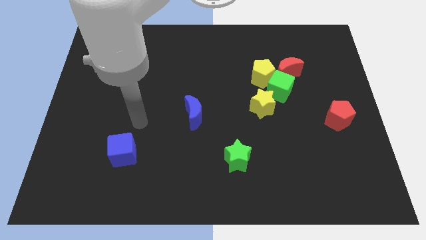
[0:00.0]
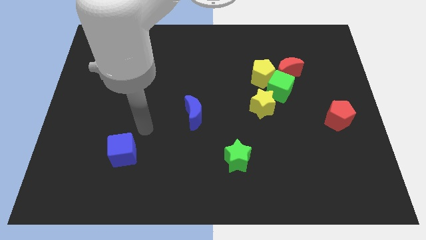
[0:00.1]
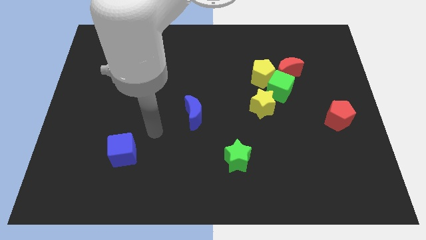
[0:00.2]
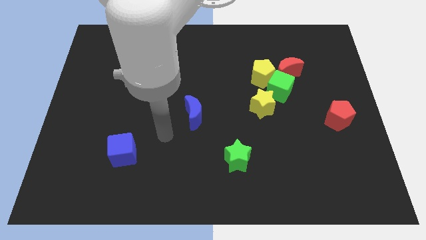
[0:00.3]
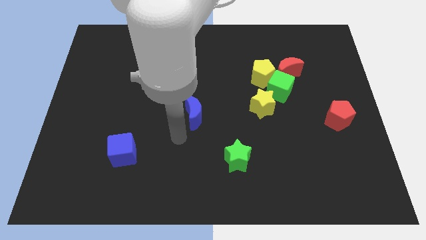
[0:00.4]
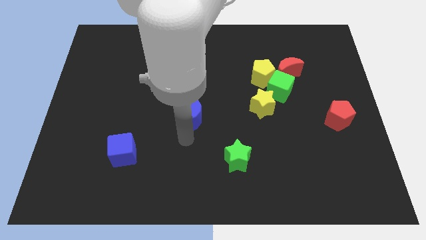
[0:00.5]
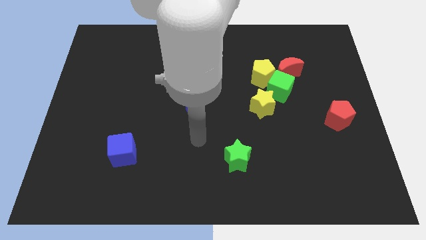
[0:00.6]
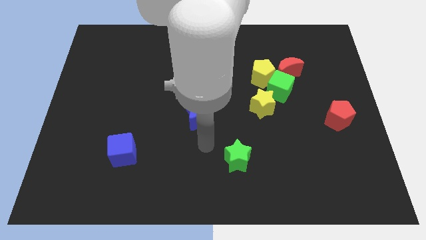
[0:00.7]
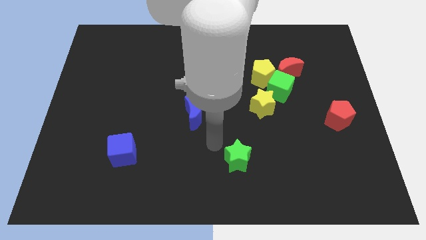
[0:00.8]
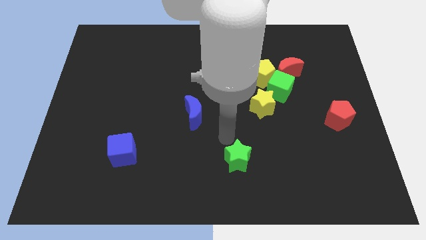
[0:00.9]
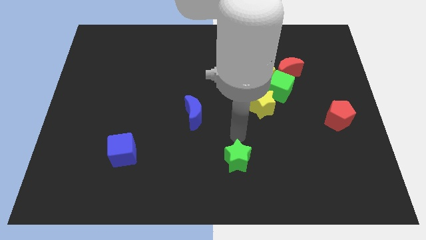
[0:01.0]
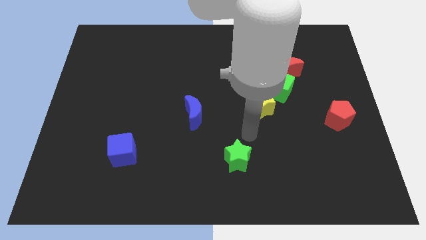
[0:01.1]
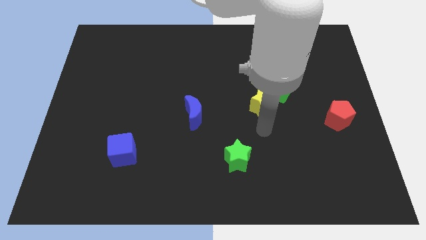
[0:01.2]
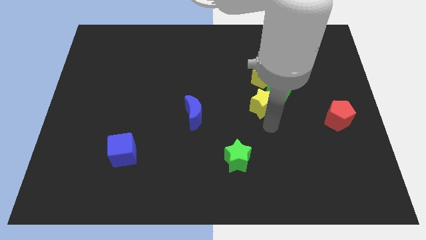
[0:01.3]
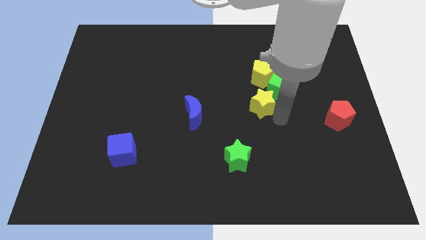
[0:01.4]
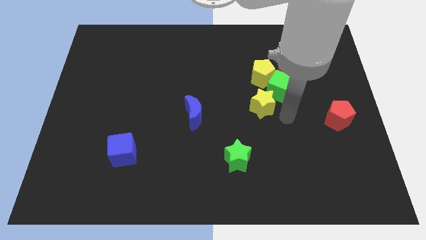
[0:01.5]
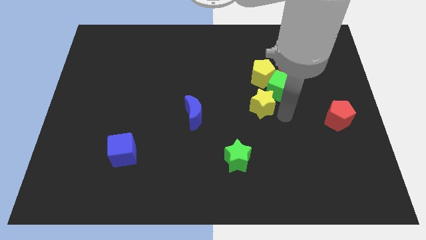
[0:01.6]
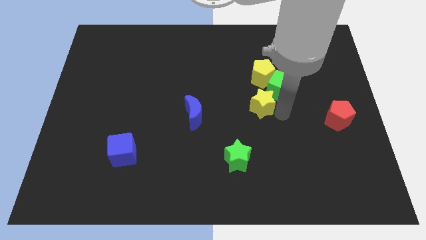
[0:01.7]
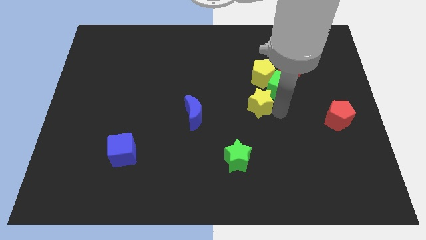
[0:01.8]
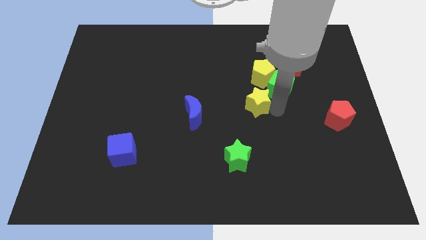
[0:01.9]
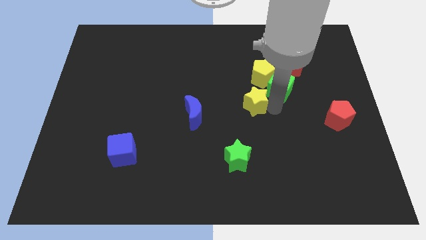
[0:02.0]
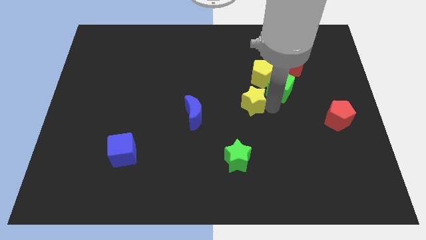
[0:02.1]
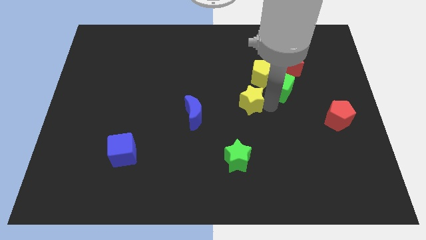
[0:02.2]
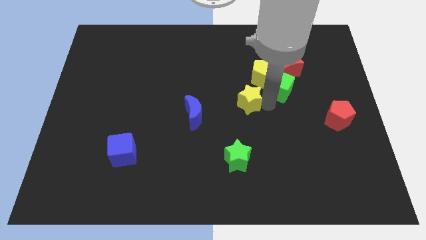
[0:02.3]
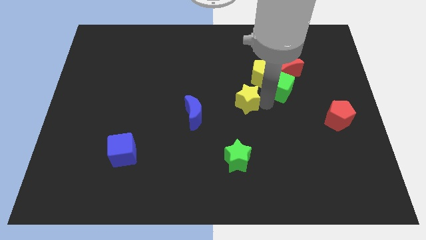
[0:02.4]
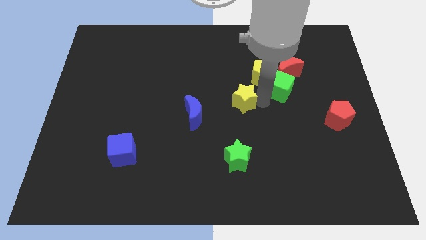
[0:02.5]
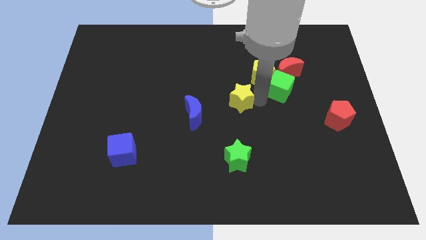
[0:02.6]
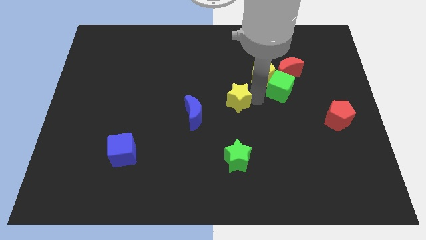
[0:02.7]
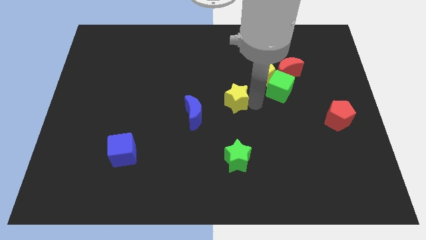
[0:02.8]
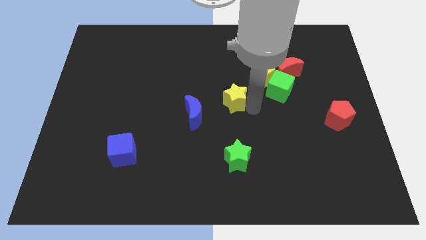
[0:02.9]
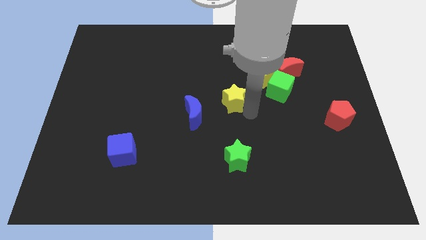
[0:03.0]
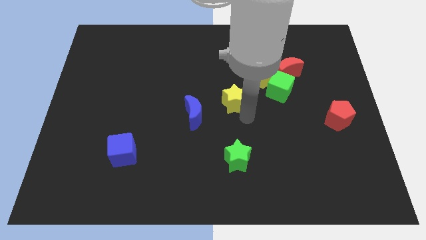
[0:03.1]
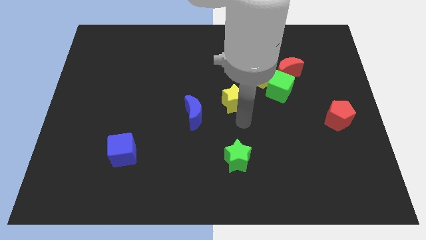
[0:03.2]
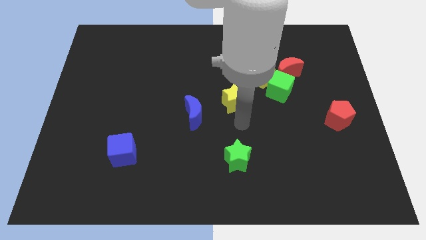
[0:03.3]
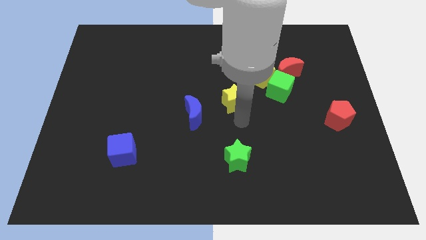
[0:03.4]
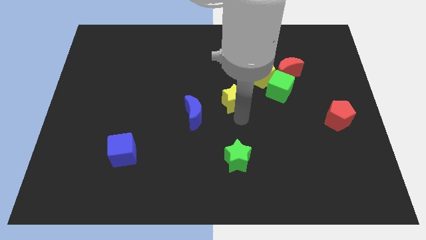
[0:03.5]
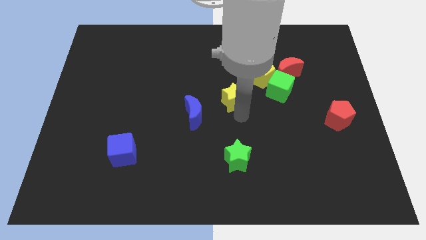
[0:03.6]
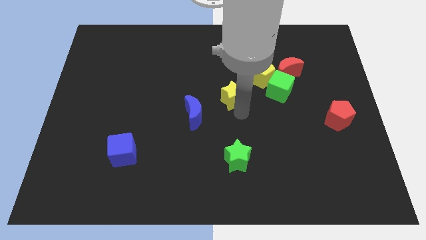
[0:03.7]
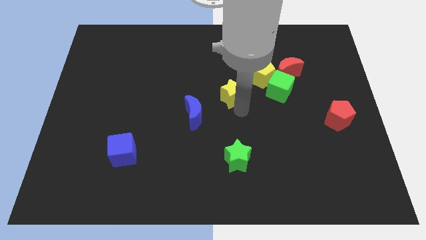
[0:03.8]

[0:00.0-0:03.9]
slightly move the yellow star up and to the left diagonally

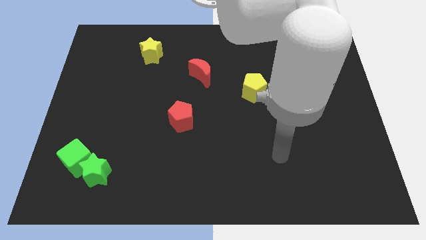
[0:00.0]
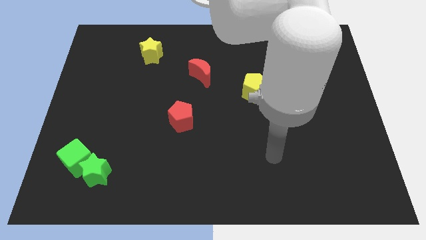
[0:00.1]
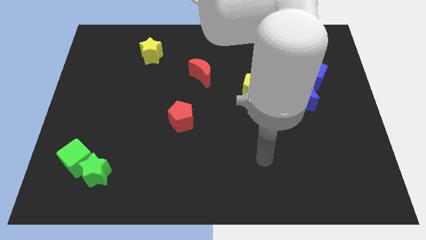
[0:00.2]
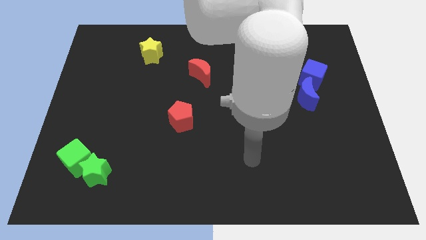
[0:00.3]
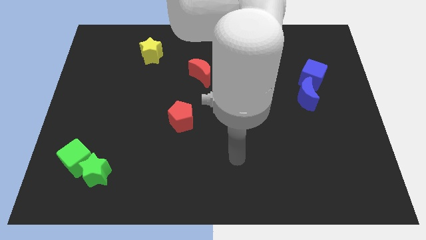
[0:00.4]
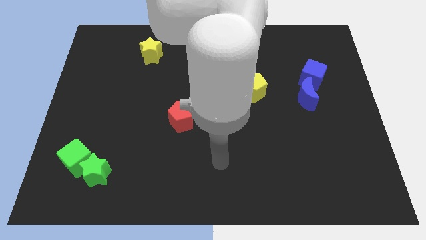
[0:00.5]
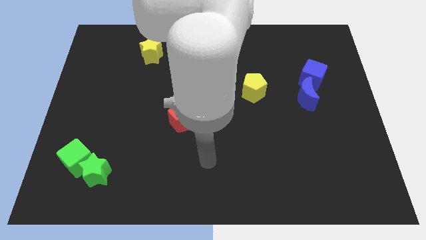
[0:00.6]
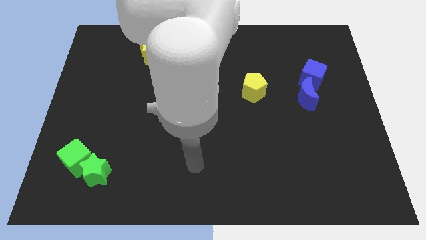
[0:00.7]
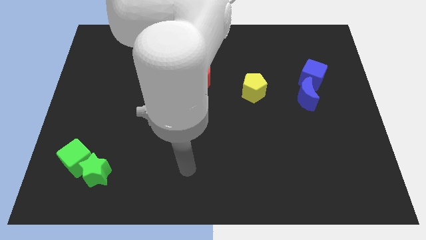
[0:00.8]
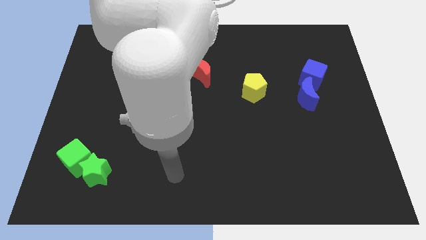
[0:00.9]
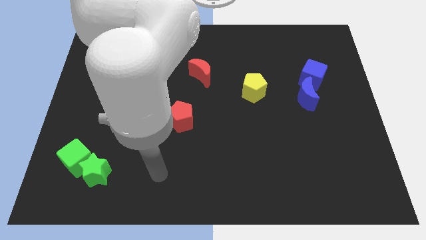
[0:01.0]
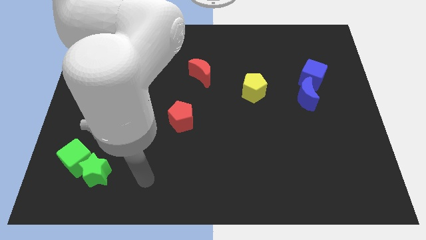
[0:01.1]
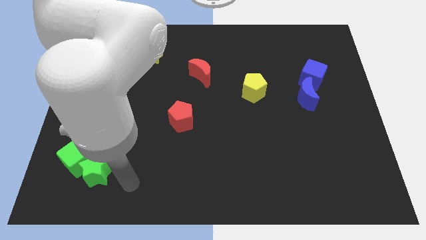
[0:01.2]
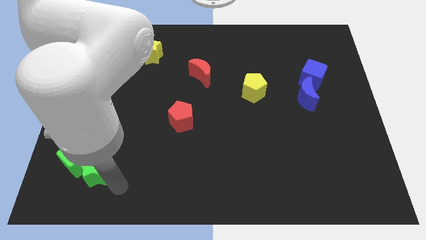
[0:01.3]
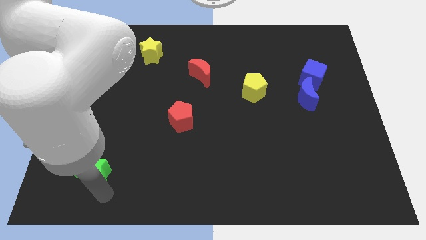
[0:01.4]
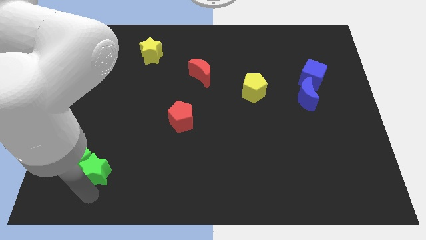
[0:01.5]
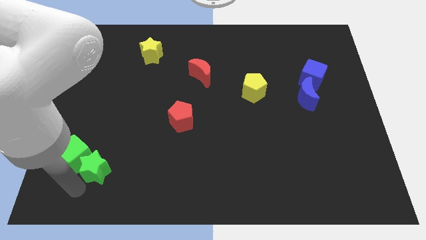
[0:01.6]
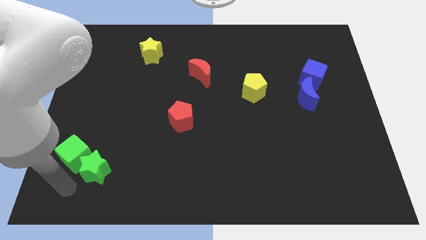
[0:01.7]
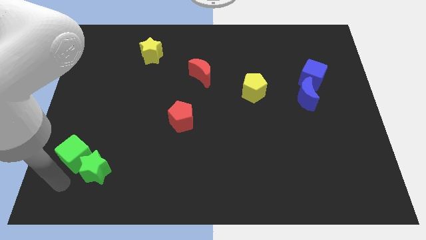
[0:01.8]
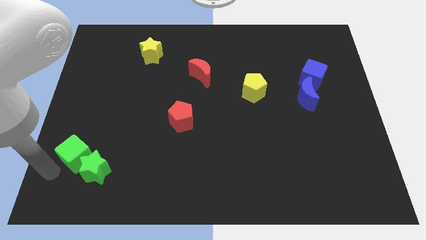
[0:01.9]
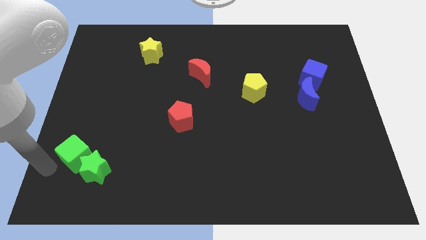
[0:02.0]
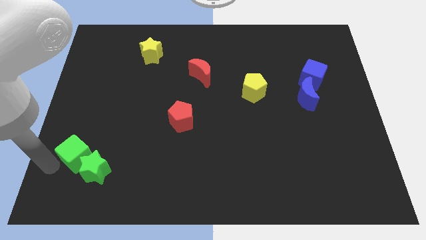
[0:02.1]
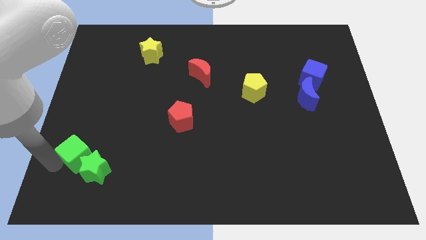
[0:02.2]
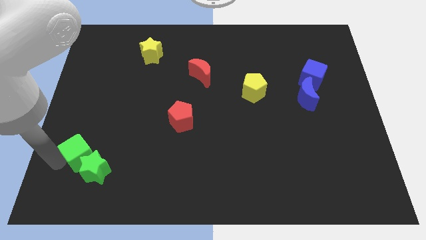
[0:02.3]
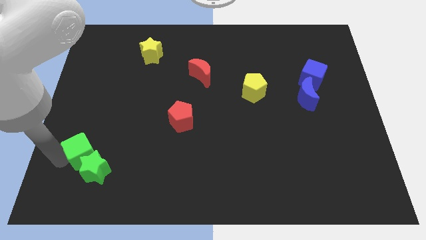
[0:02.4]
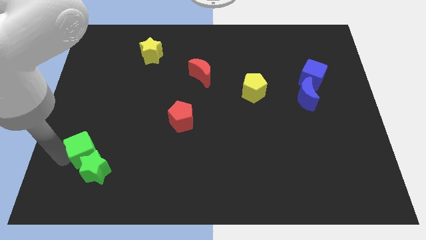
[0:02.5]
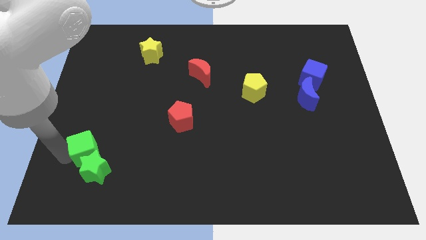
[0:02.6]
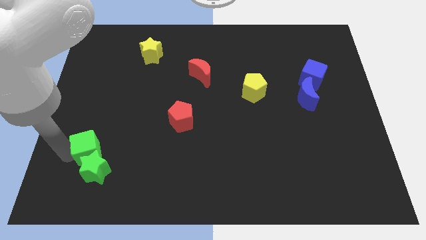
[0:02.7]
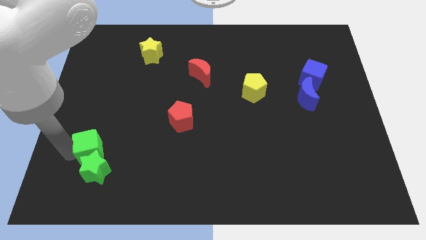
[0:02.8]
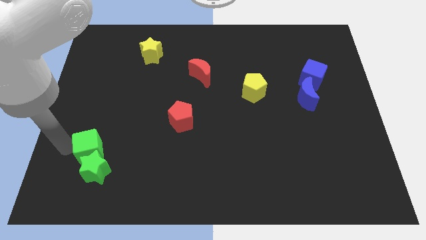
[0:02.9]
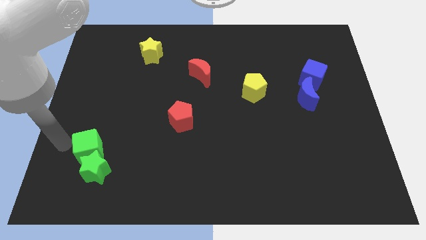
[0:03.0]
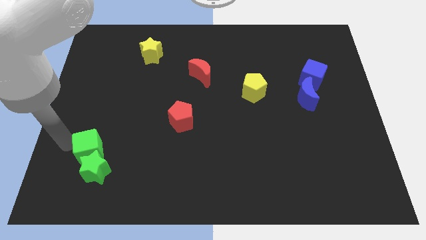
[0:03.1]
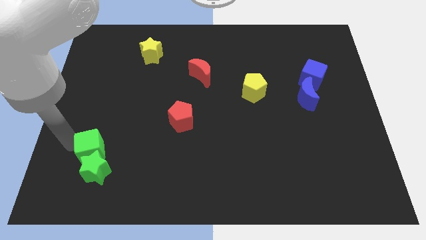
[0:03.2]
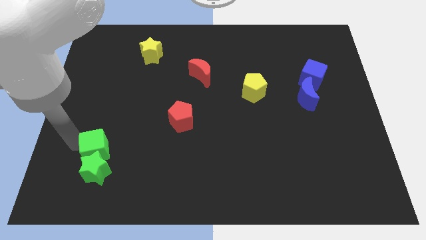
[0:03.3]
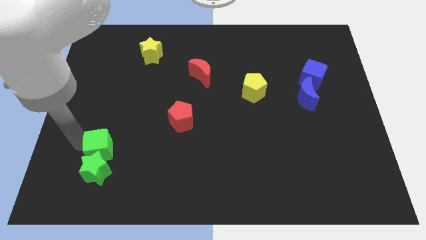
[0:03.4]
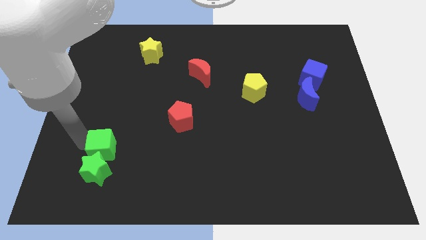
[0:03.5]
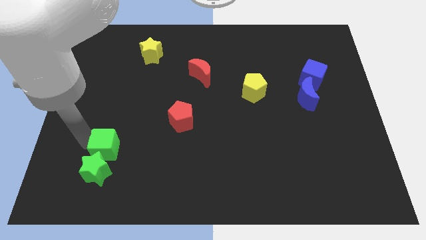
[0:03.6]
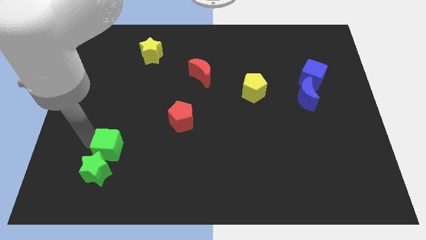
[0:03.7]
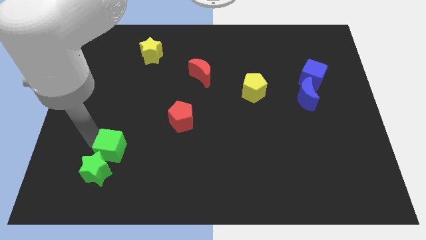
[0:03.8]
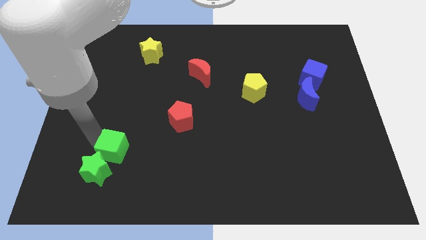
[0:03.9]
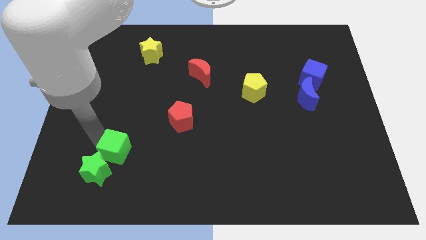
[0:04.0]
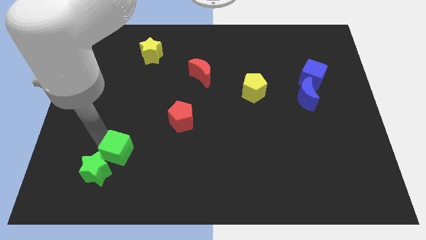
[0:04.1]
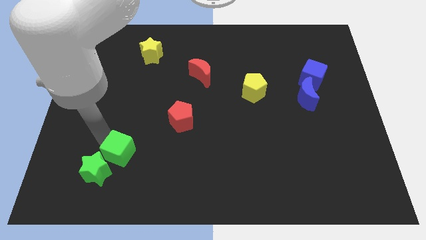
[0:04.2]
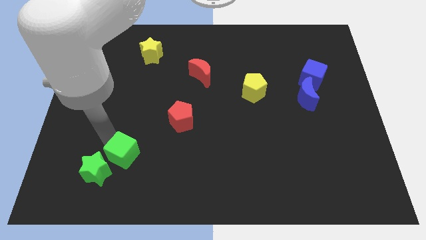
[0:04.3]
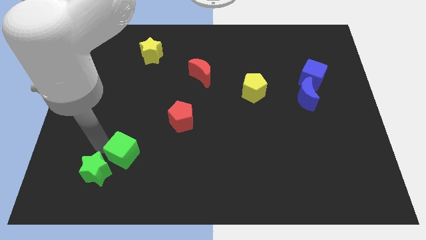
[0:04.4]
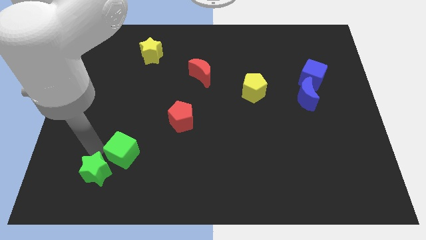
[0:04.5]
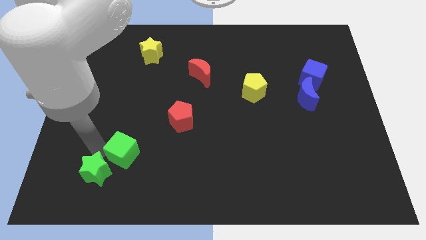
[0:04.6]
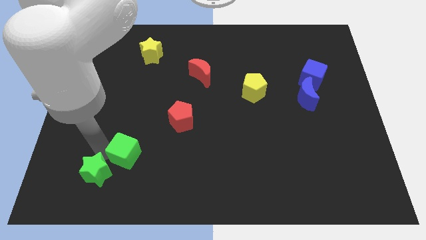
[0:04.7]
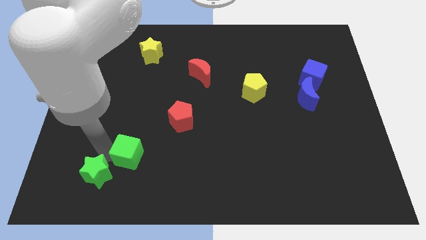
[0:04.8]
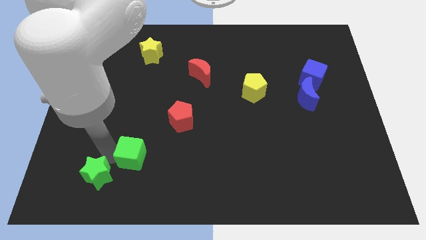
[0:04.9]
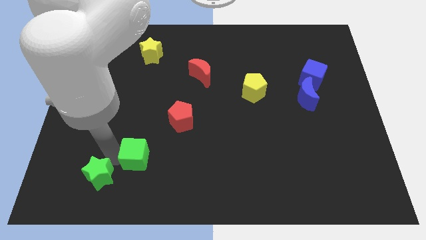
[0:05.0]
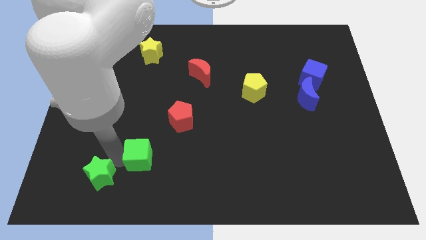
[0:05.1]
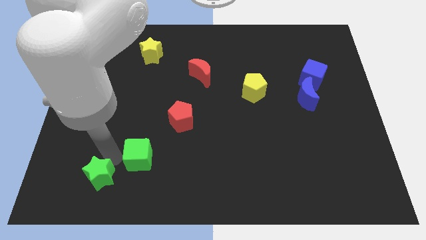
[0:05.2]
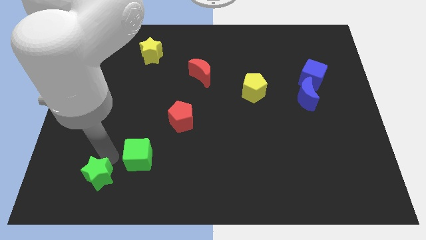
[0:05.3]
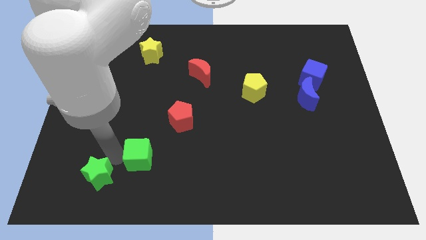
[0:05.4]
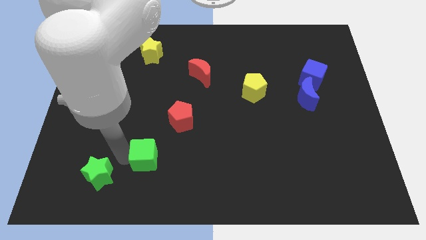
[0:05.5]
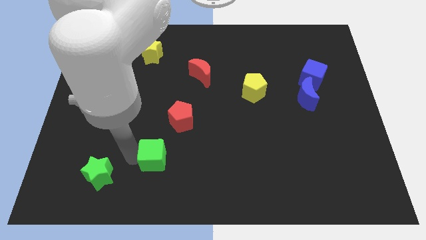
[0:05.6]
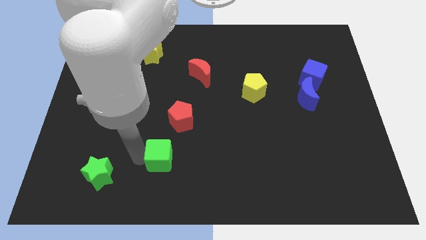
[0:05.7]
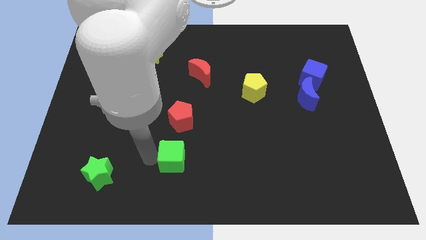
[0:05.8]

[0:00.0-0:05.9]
move the green cube to the right
